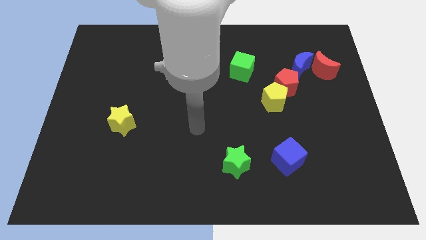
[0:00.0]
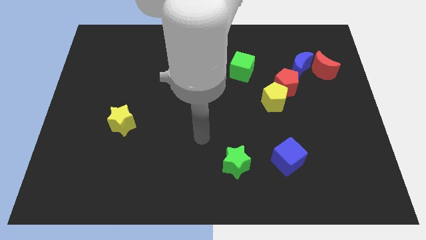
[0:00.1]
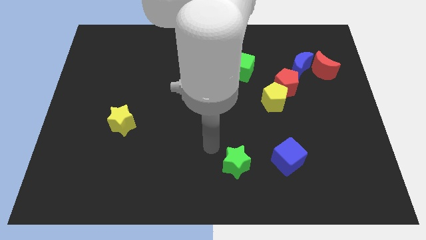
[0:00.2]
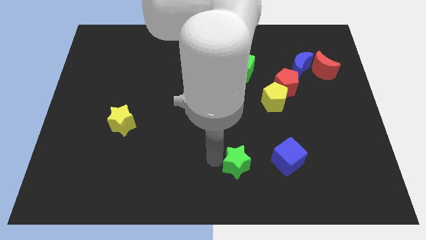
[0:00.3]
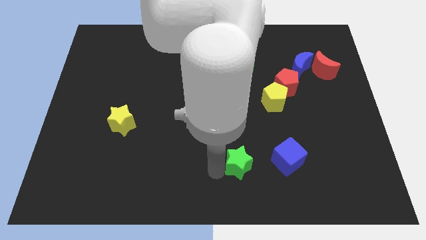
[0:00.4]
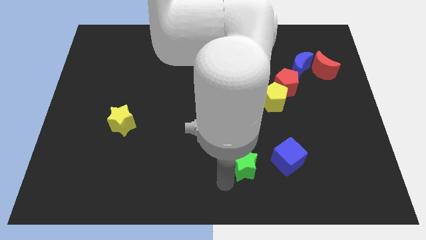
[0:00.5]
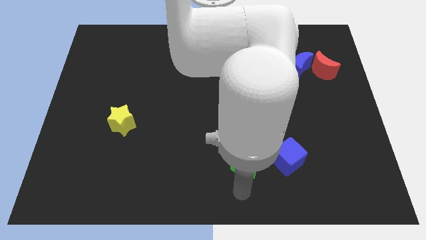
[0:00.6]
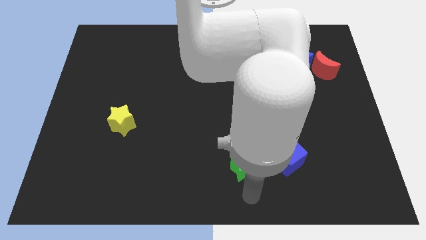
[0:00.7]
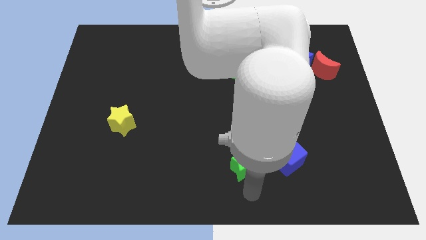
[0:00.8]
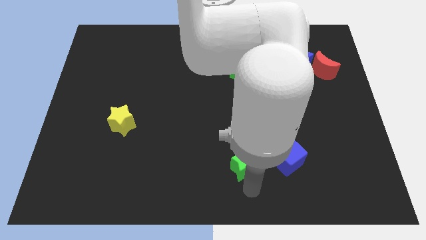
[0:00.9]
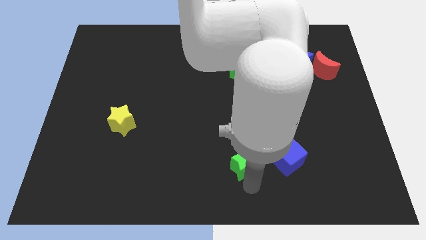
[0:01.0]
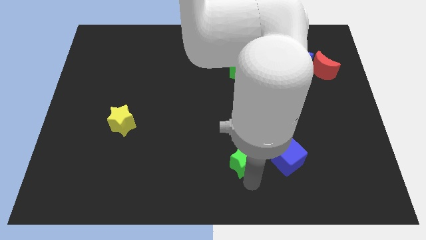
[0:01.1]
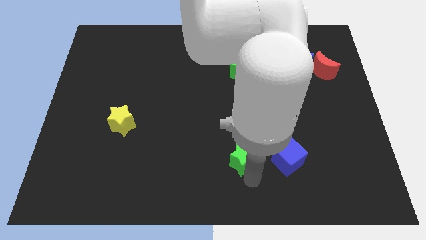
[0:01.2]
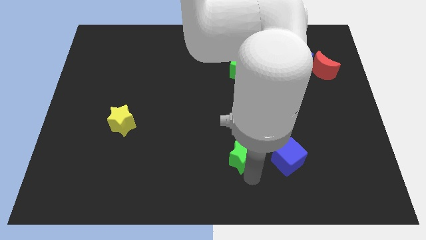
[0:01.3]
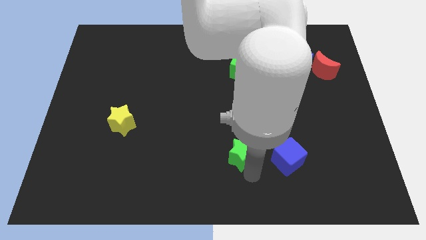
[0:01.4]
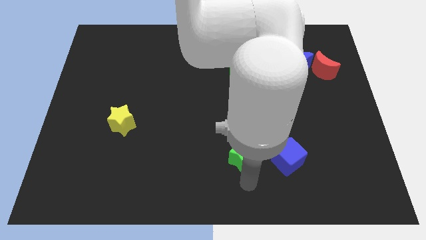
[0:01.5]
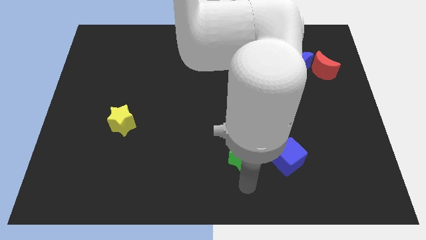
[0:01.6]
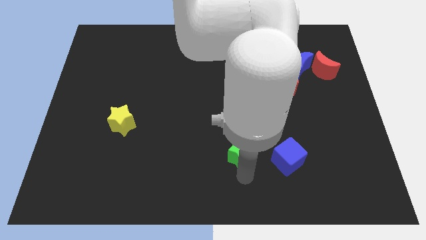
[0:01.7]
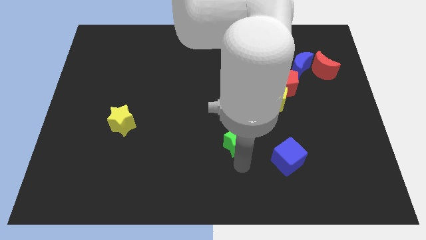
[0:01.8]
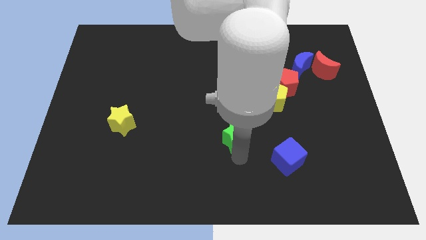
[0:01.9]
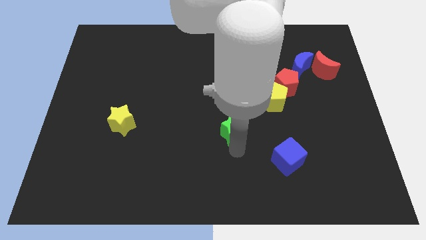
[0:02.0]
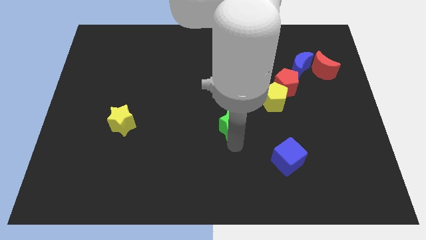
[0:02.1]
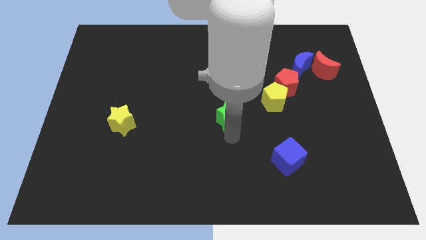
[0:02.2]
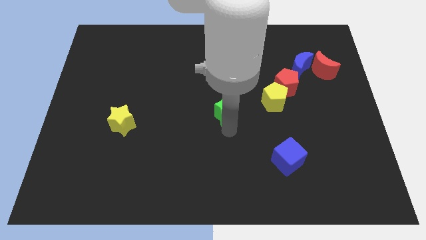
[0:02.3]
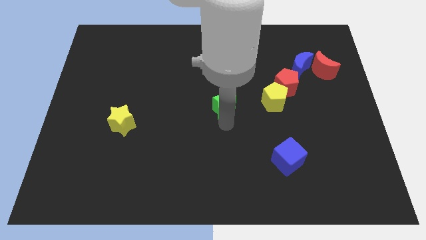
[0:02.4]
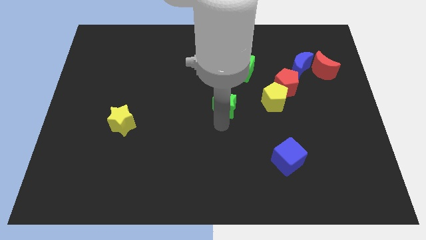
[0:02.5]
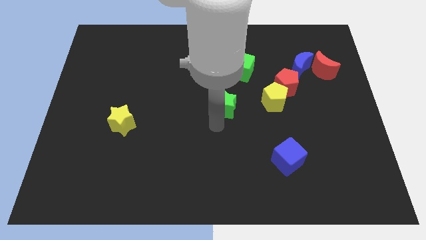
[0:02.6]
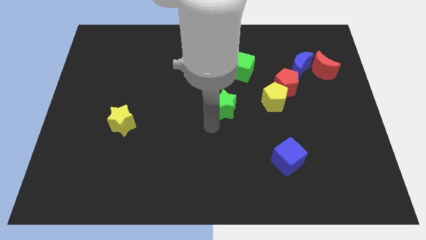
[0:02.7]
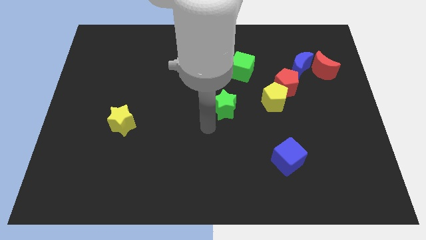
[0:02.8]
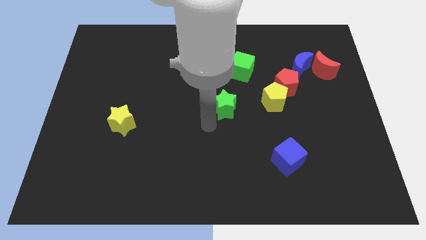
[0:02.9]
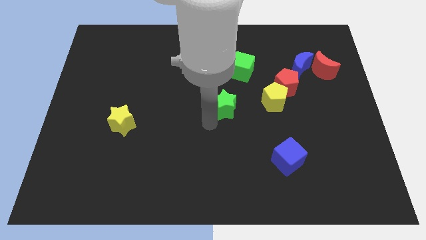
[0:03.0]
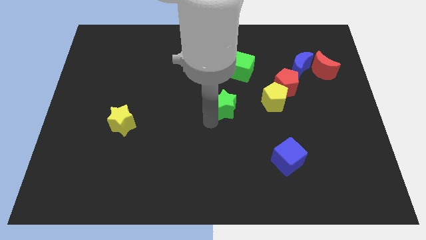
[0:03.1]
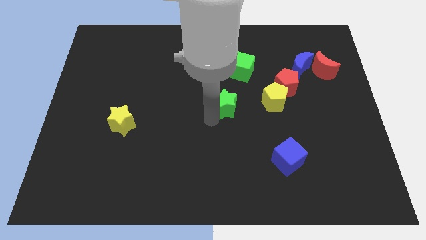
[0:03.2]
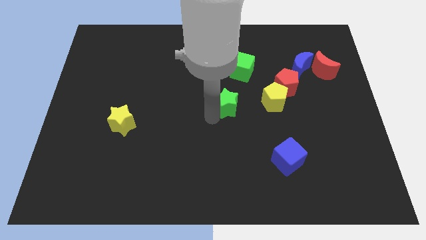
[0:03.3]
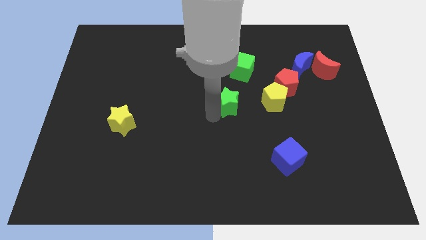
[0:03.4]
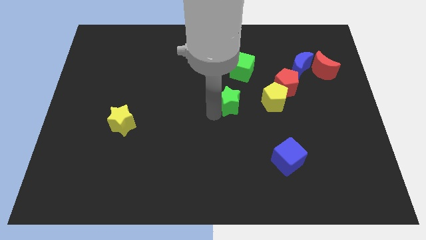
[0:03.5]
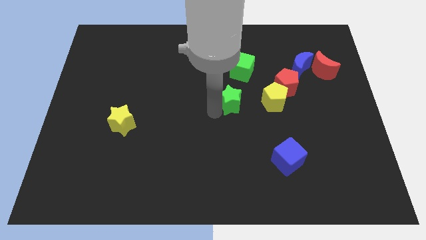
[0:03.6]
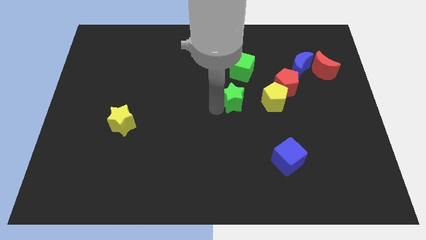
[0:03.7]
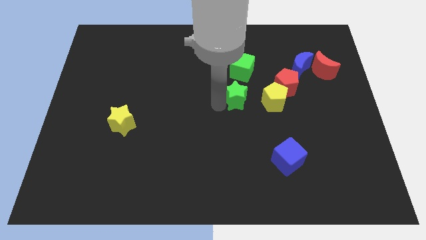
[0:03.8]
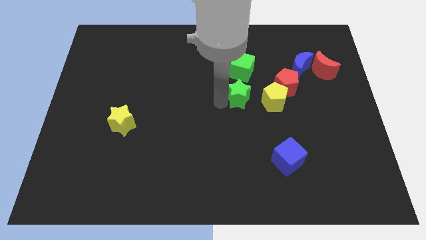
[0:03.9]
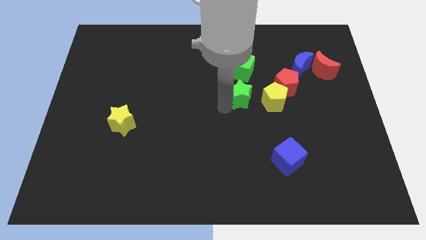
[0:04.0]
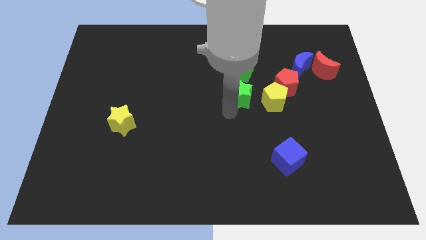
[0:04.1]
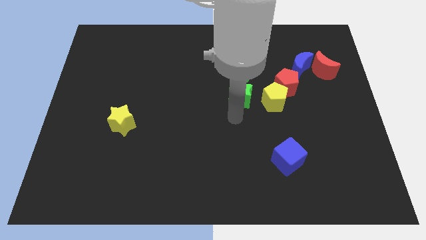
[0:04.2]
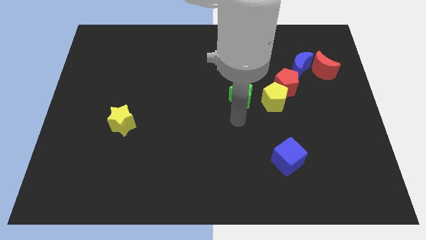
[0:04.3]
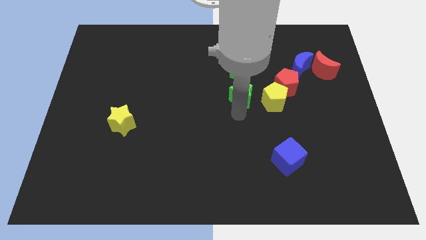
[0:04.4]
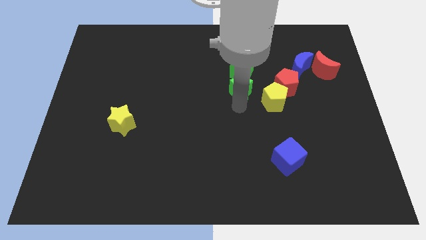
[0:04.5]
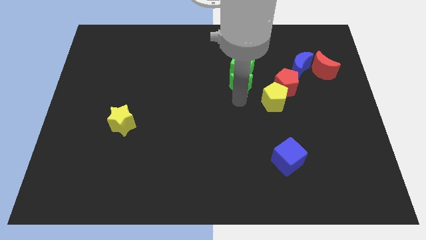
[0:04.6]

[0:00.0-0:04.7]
push the green star towards the green cube

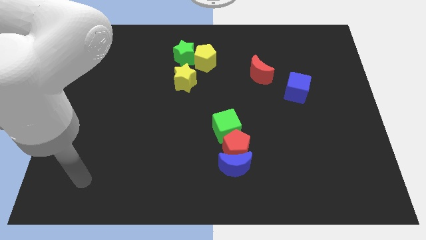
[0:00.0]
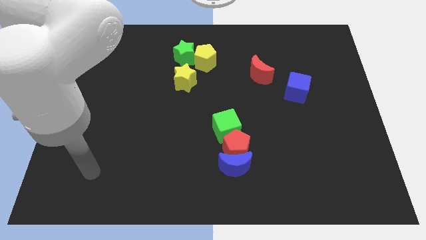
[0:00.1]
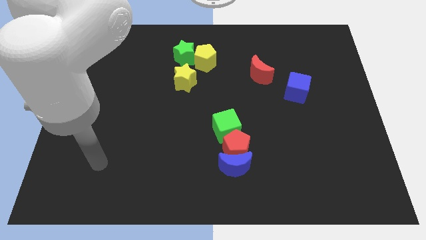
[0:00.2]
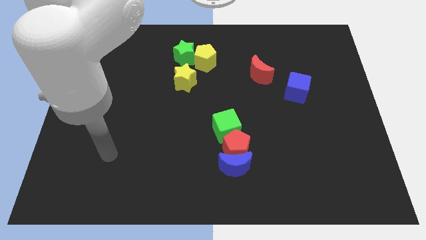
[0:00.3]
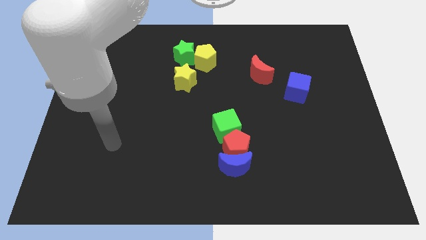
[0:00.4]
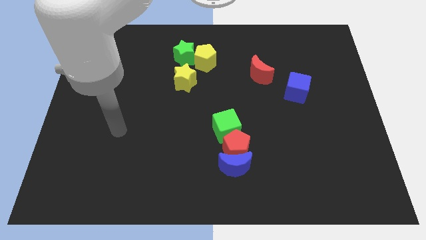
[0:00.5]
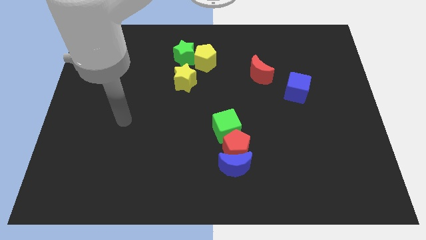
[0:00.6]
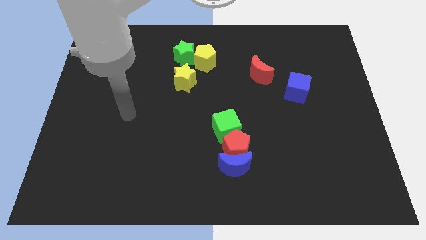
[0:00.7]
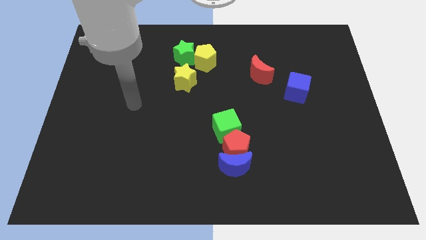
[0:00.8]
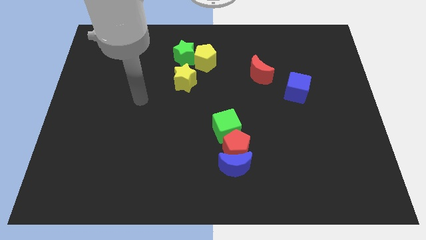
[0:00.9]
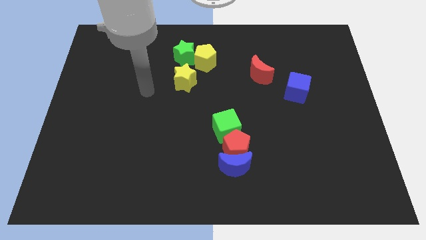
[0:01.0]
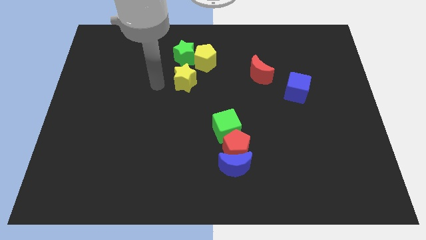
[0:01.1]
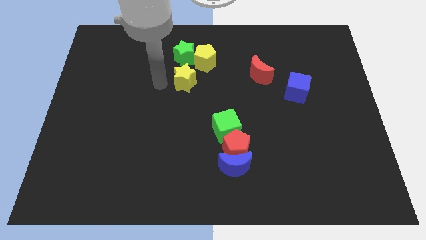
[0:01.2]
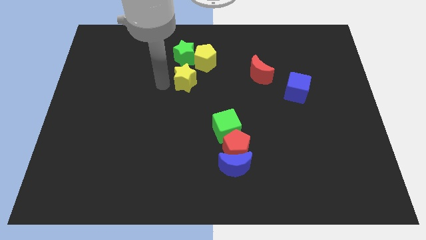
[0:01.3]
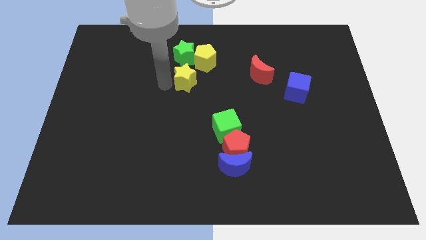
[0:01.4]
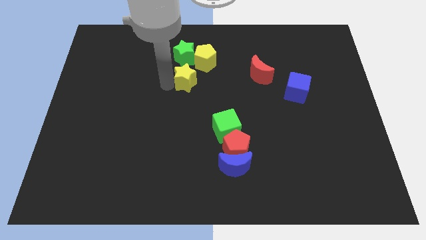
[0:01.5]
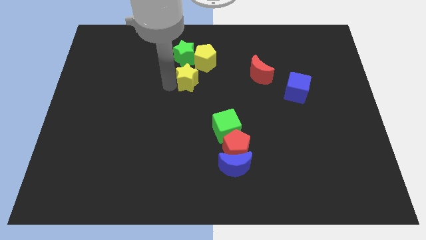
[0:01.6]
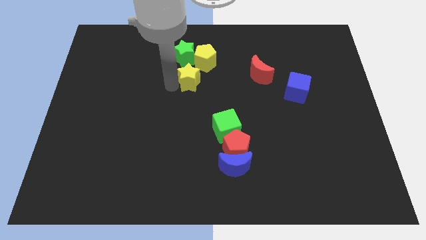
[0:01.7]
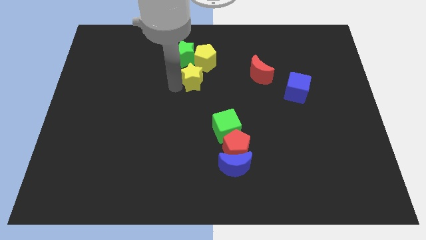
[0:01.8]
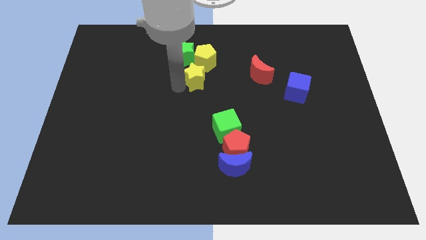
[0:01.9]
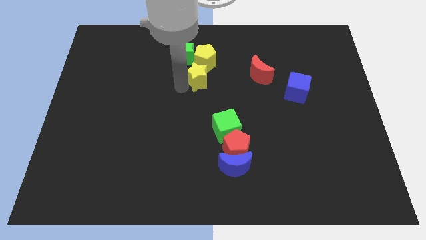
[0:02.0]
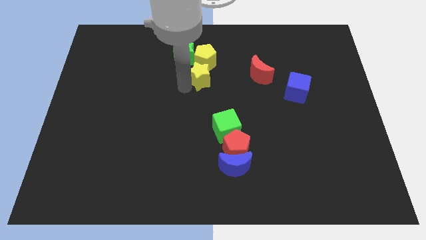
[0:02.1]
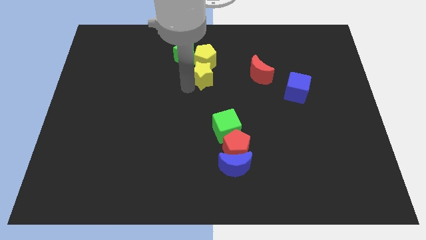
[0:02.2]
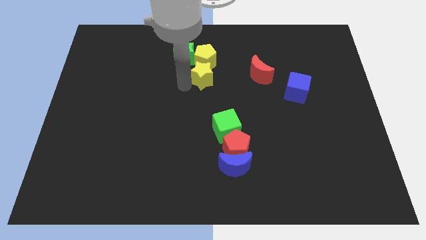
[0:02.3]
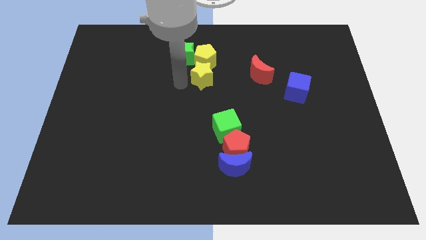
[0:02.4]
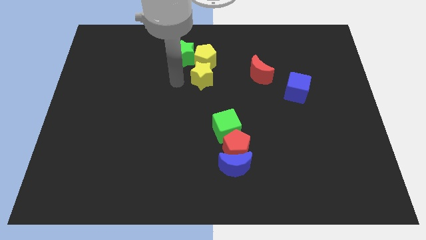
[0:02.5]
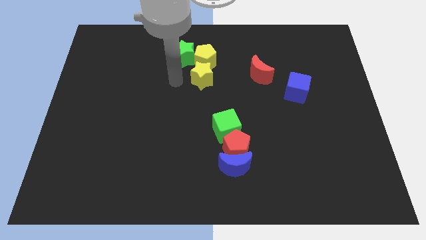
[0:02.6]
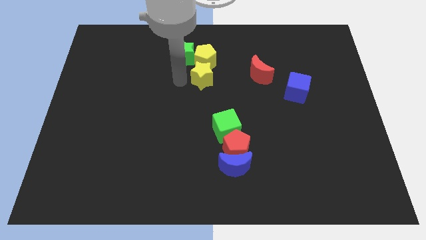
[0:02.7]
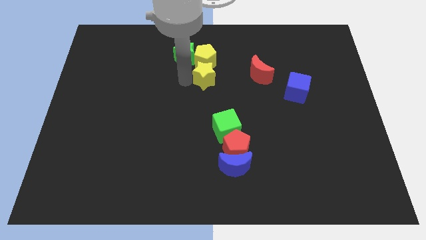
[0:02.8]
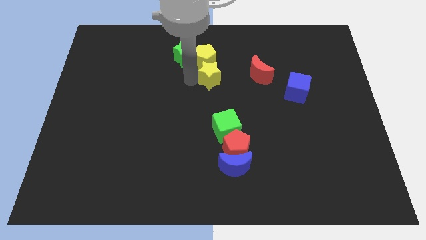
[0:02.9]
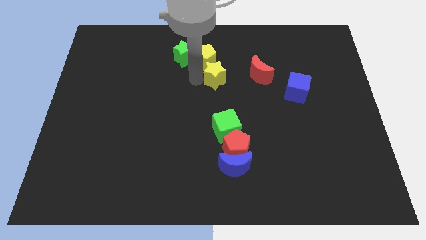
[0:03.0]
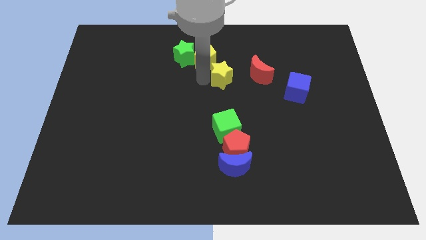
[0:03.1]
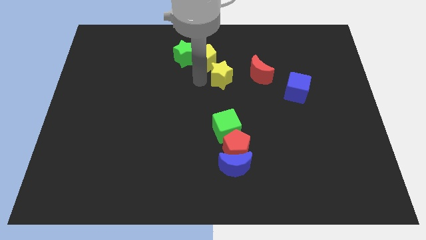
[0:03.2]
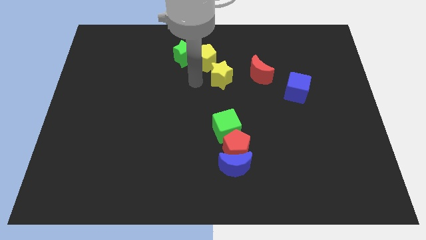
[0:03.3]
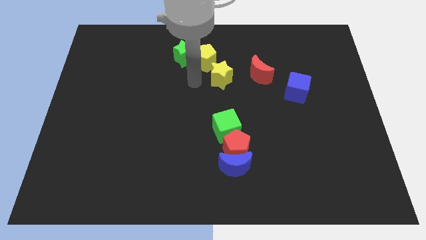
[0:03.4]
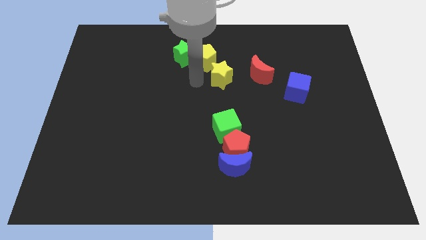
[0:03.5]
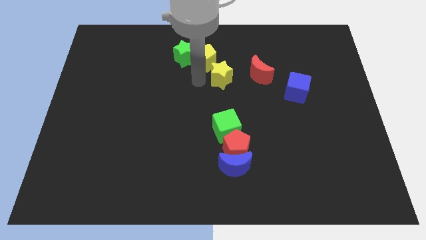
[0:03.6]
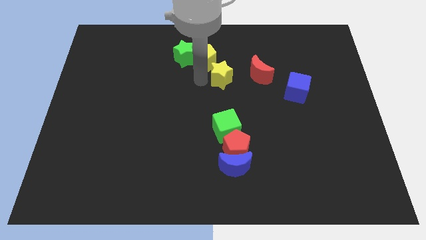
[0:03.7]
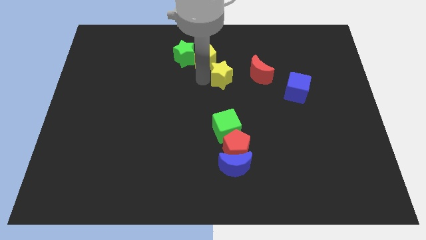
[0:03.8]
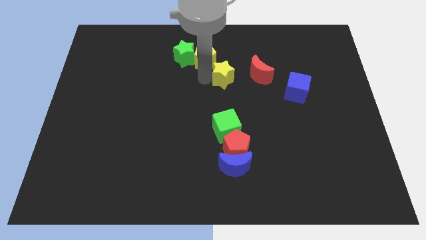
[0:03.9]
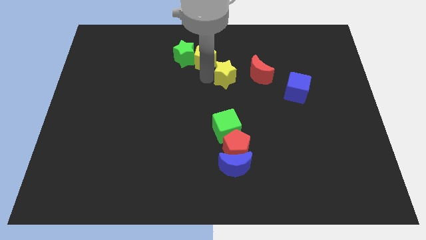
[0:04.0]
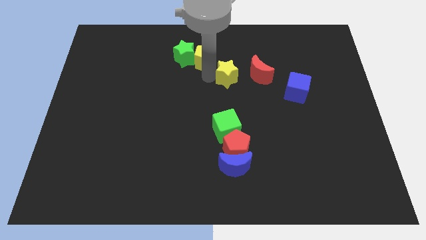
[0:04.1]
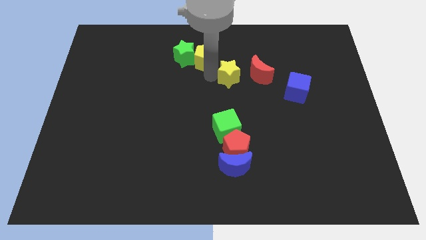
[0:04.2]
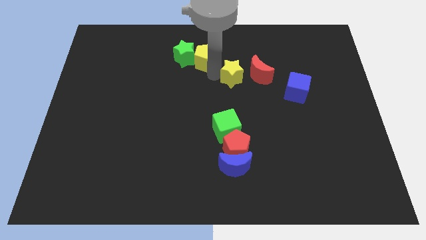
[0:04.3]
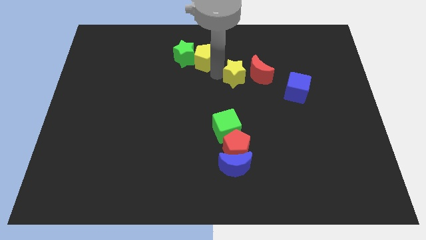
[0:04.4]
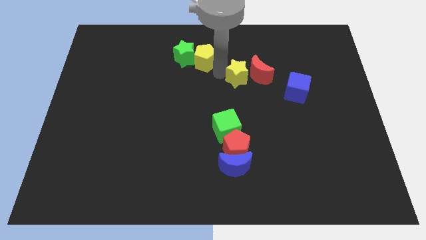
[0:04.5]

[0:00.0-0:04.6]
move the yellow star close to the red moon
